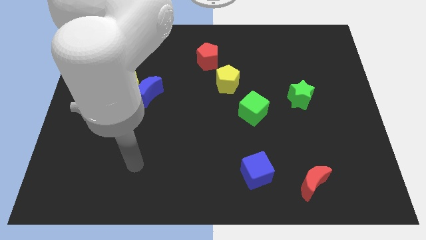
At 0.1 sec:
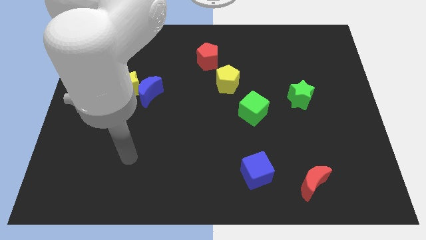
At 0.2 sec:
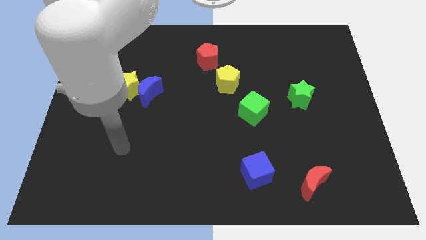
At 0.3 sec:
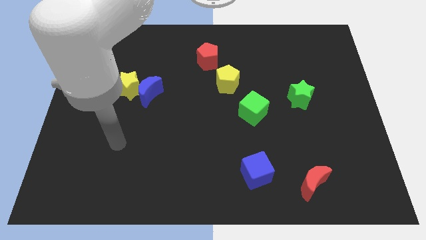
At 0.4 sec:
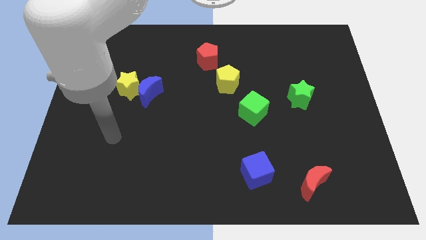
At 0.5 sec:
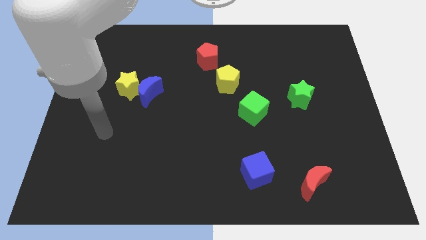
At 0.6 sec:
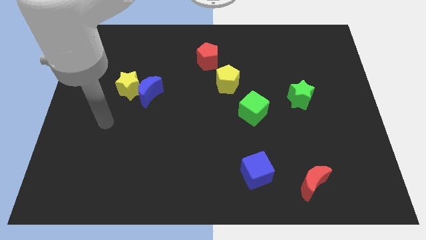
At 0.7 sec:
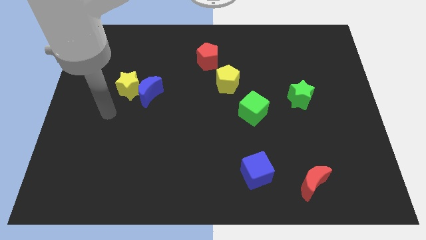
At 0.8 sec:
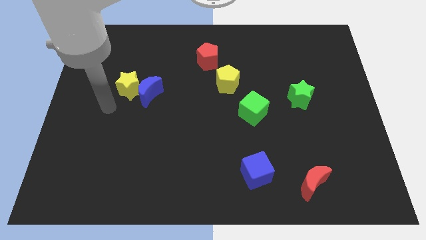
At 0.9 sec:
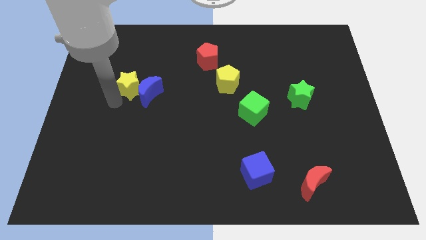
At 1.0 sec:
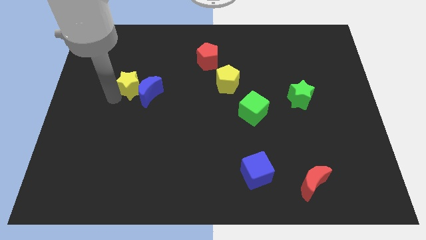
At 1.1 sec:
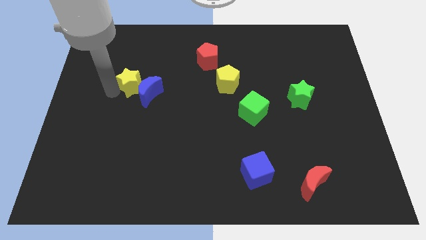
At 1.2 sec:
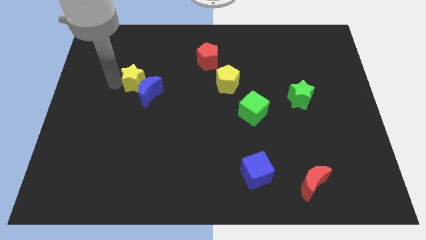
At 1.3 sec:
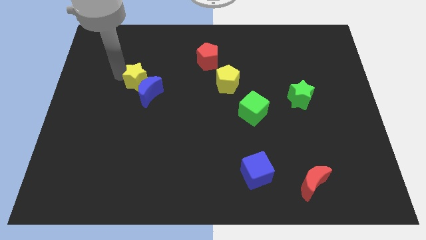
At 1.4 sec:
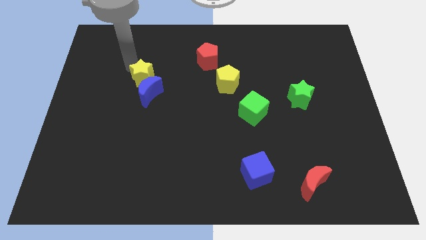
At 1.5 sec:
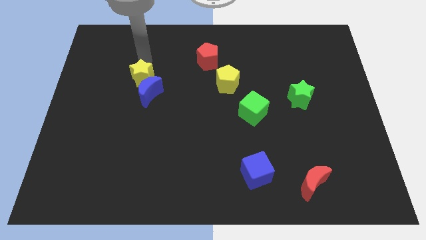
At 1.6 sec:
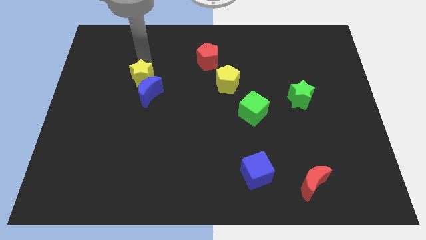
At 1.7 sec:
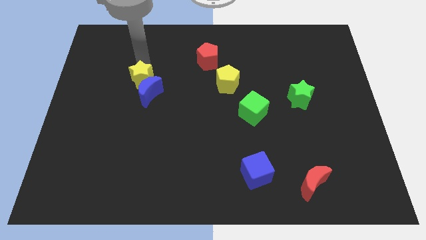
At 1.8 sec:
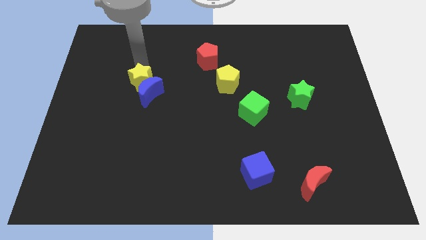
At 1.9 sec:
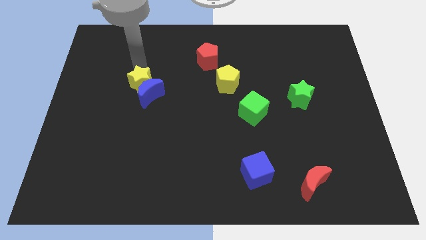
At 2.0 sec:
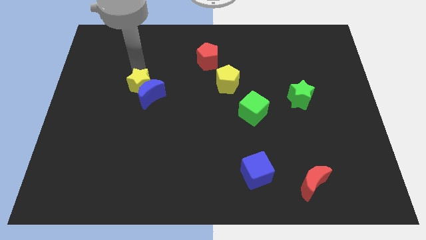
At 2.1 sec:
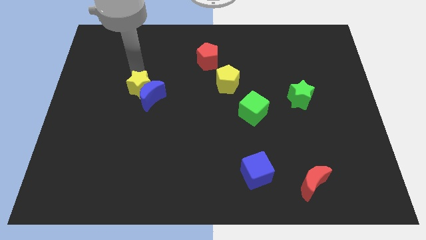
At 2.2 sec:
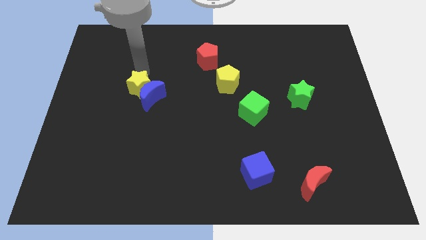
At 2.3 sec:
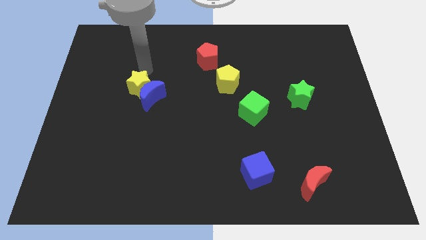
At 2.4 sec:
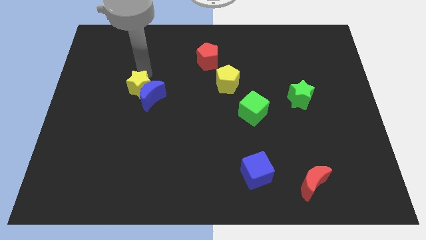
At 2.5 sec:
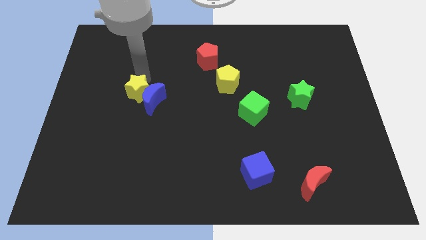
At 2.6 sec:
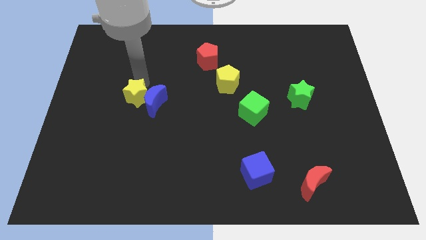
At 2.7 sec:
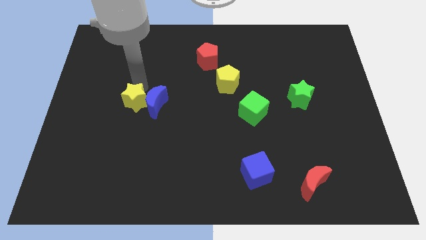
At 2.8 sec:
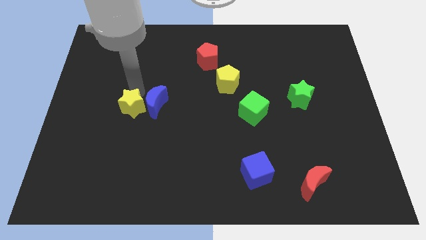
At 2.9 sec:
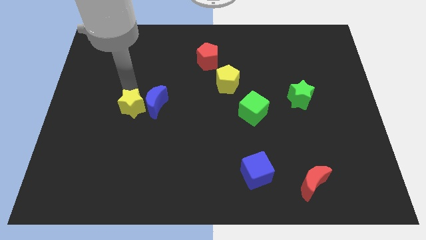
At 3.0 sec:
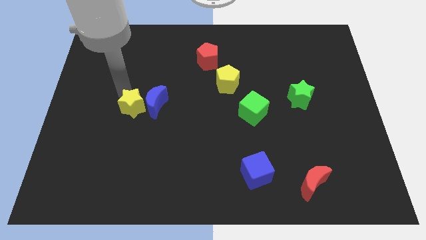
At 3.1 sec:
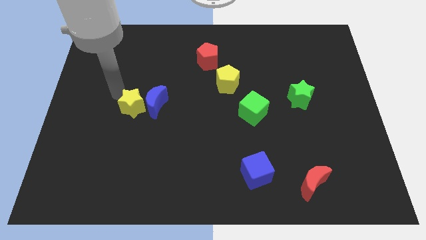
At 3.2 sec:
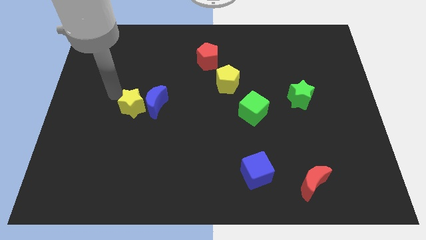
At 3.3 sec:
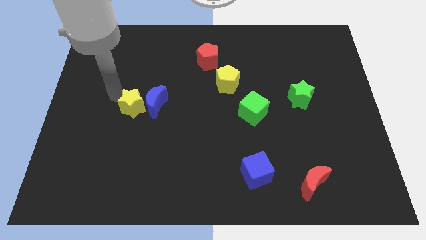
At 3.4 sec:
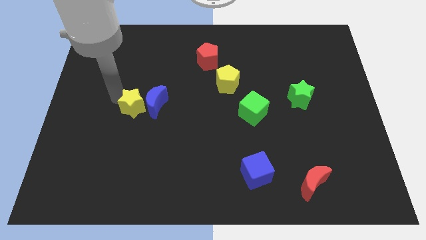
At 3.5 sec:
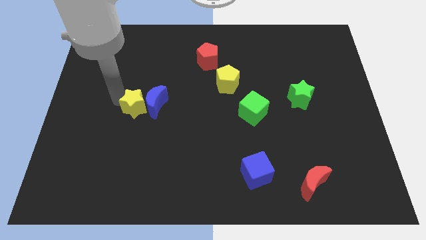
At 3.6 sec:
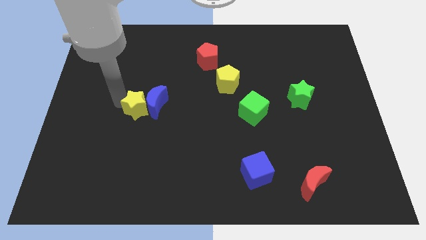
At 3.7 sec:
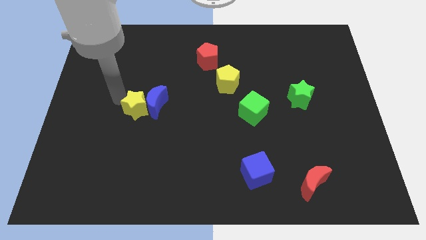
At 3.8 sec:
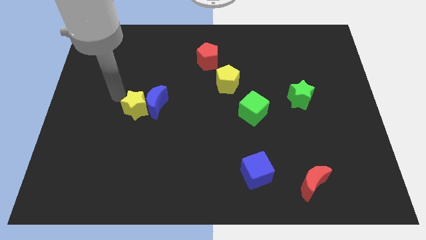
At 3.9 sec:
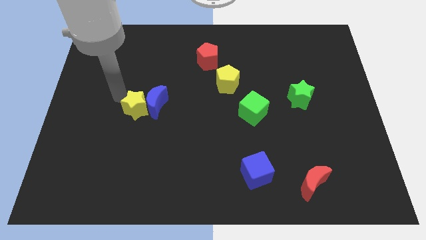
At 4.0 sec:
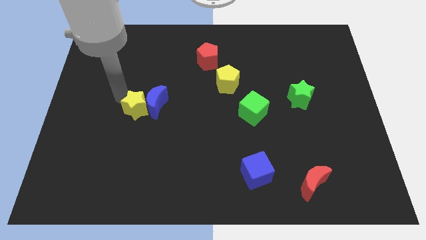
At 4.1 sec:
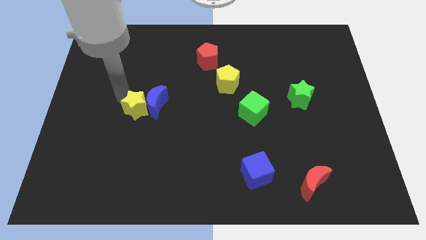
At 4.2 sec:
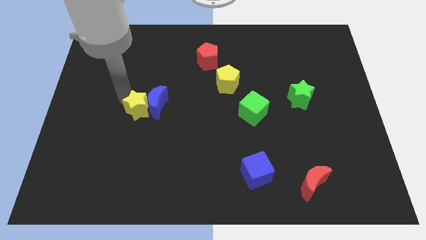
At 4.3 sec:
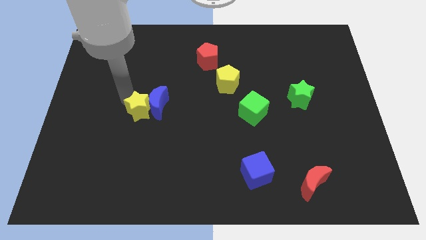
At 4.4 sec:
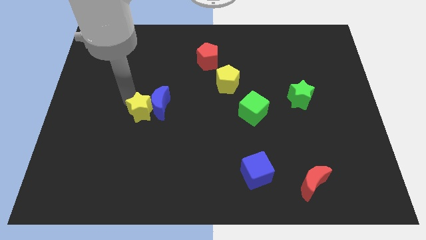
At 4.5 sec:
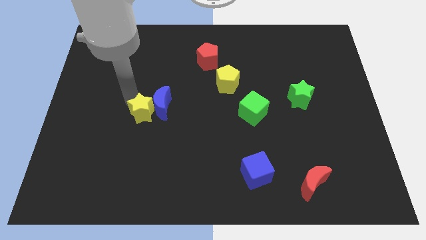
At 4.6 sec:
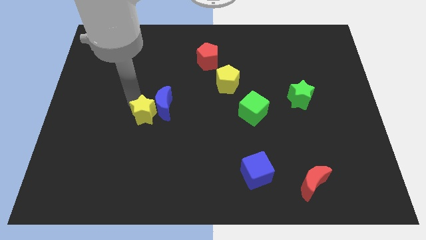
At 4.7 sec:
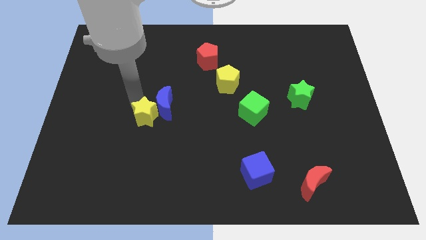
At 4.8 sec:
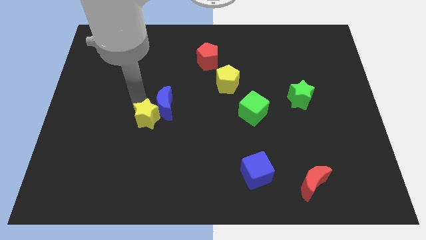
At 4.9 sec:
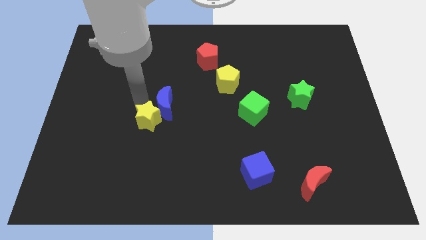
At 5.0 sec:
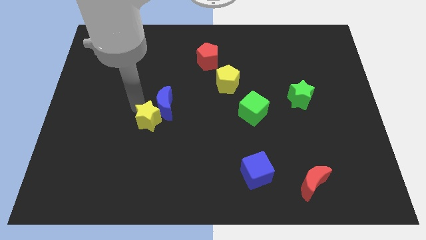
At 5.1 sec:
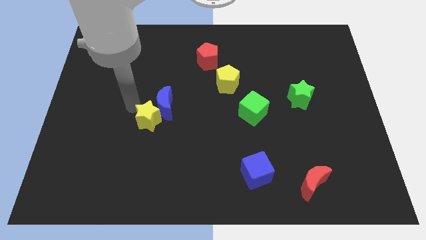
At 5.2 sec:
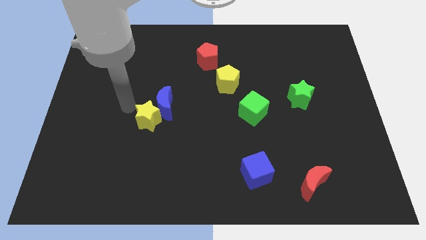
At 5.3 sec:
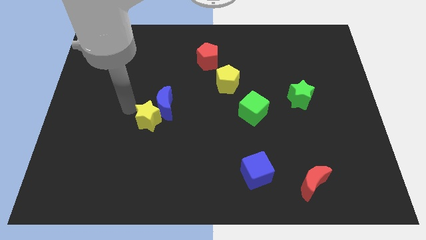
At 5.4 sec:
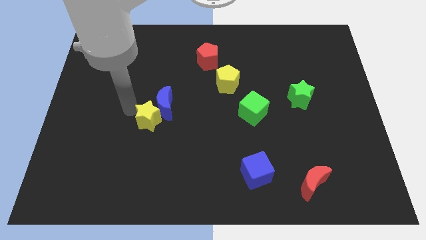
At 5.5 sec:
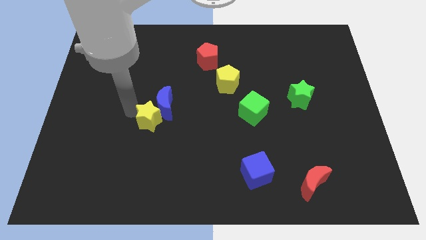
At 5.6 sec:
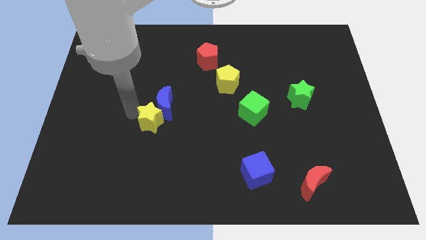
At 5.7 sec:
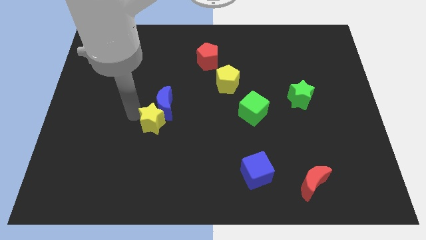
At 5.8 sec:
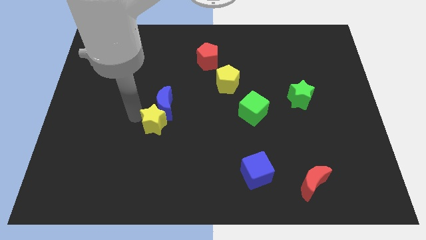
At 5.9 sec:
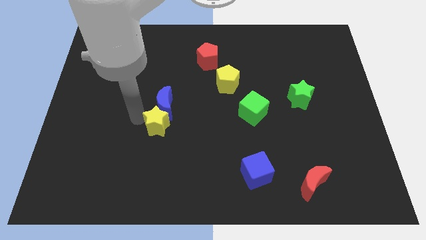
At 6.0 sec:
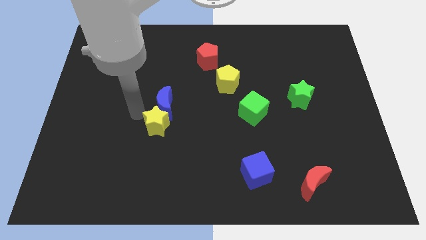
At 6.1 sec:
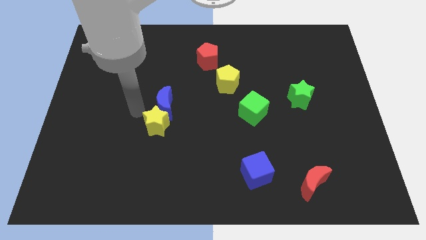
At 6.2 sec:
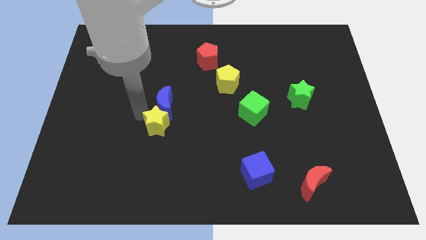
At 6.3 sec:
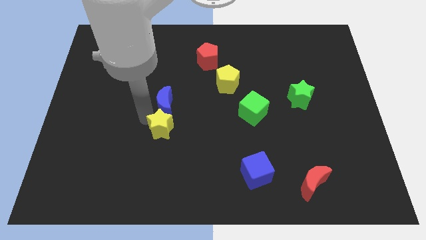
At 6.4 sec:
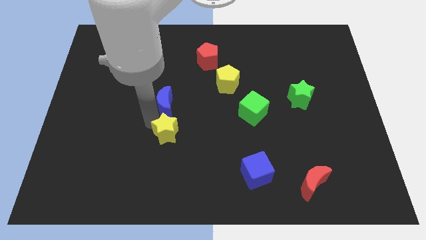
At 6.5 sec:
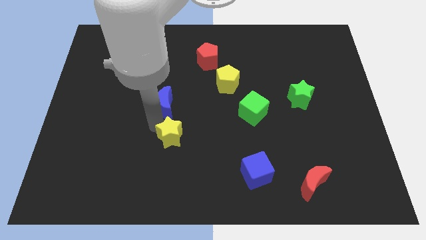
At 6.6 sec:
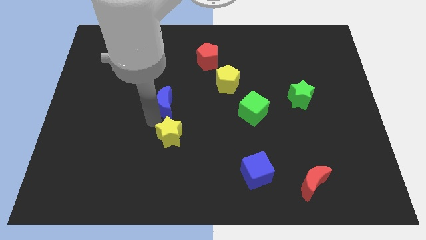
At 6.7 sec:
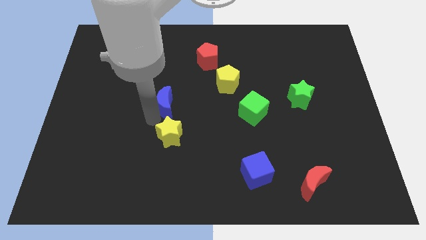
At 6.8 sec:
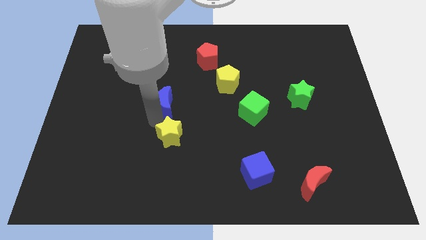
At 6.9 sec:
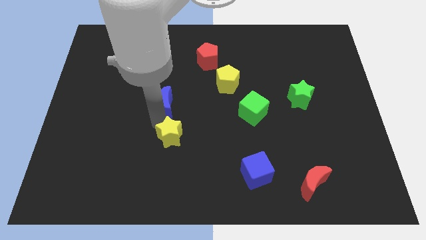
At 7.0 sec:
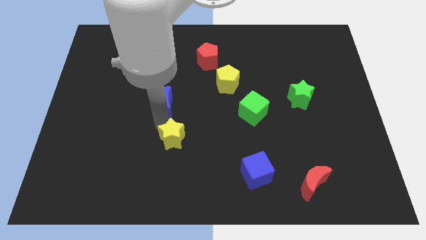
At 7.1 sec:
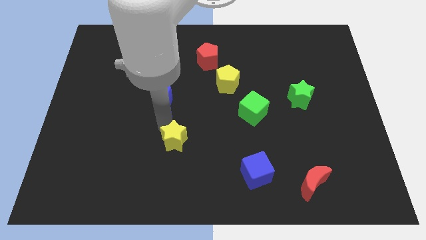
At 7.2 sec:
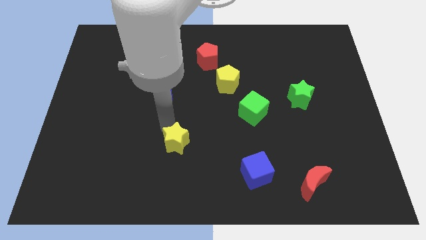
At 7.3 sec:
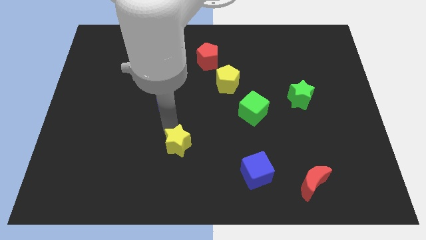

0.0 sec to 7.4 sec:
push the yellow star down and to the right diagonally

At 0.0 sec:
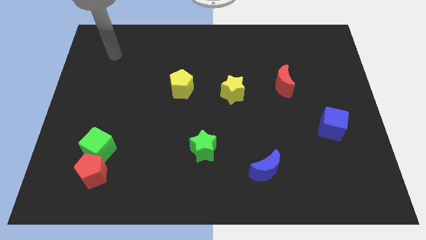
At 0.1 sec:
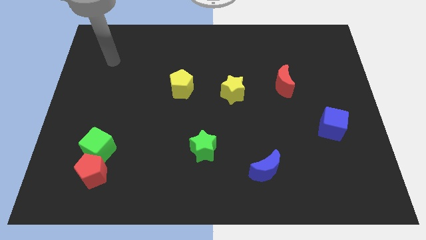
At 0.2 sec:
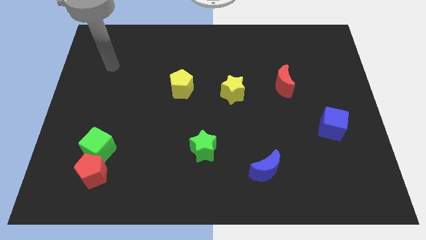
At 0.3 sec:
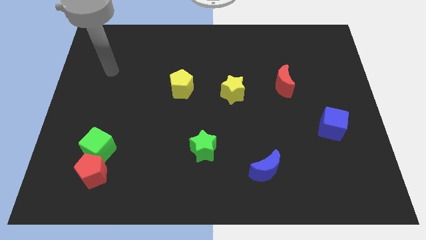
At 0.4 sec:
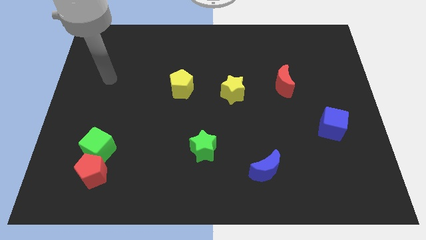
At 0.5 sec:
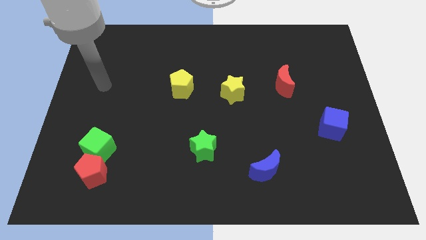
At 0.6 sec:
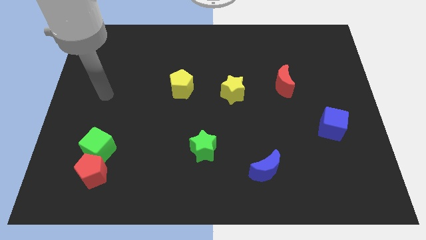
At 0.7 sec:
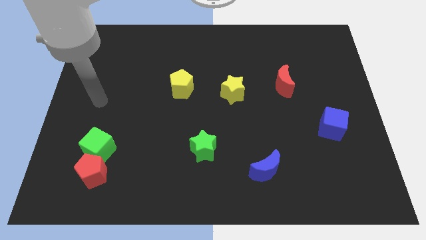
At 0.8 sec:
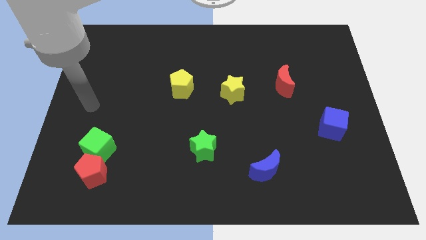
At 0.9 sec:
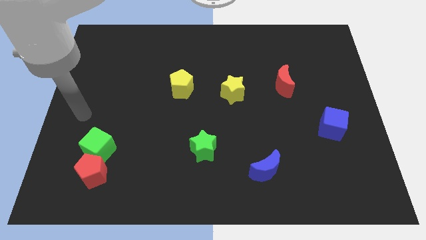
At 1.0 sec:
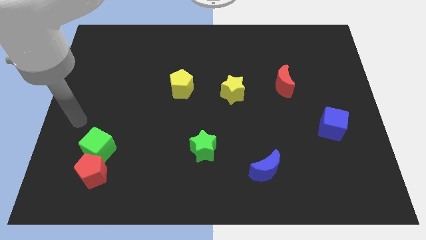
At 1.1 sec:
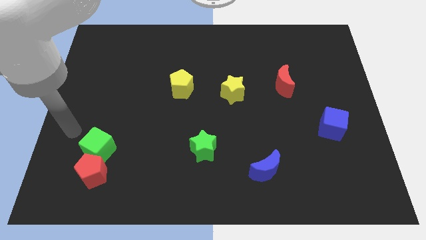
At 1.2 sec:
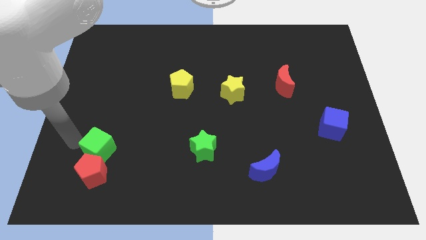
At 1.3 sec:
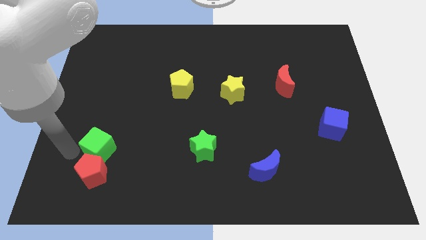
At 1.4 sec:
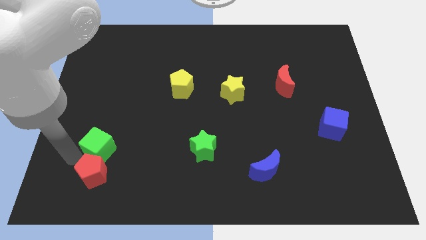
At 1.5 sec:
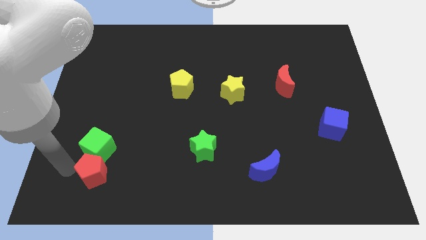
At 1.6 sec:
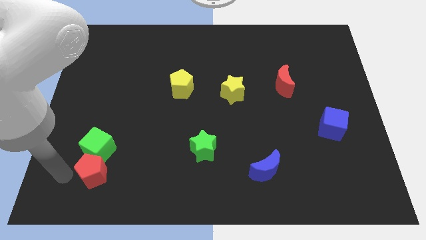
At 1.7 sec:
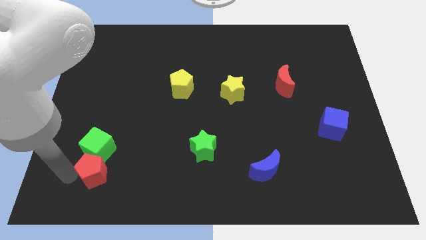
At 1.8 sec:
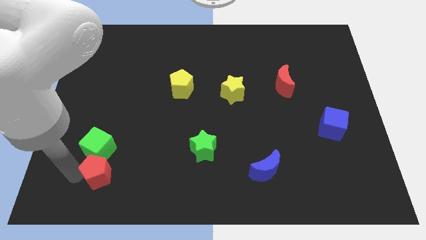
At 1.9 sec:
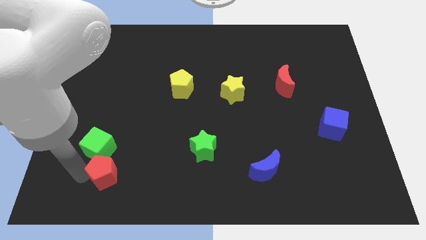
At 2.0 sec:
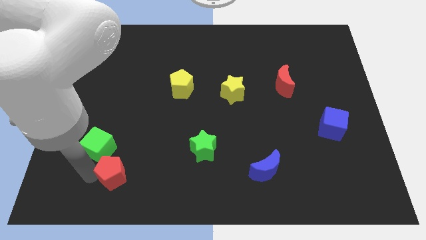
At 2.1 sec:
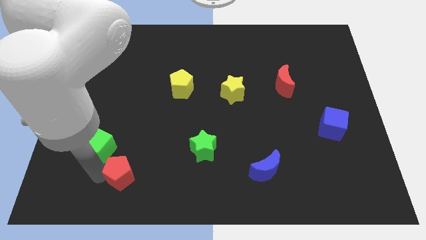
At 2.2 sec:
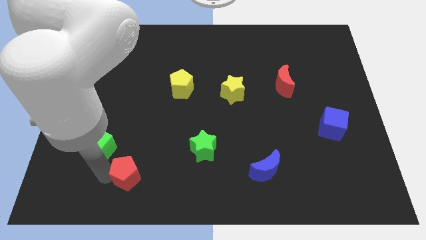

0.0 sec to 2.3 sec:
slide the red pentagon right somewhat
